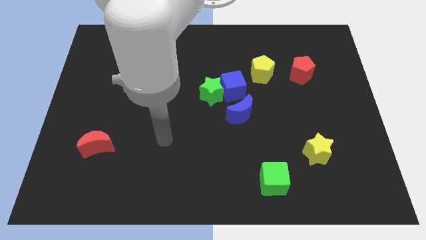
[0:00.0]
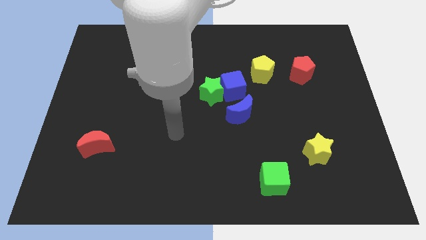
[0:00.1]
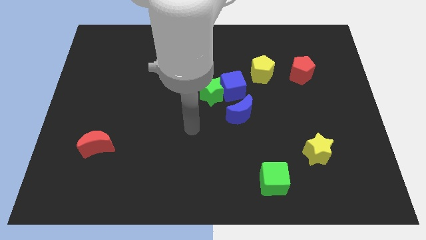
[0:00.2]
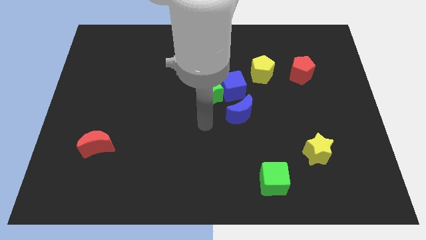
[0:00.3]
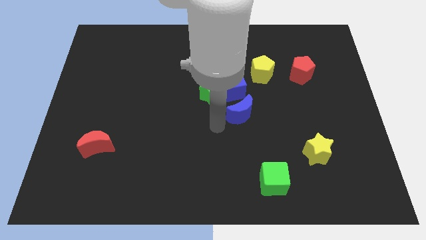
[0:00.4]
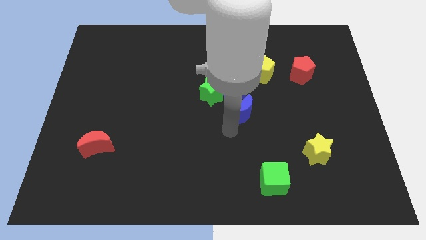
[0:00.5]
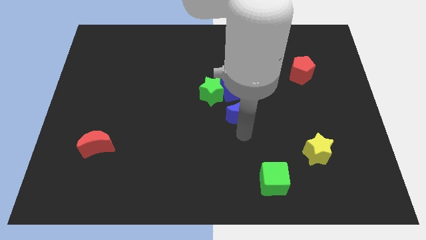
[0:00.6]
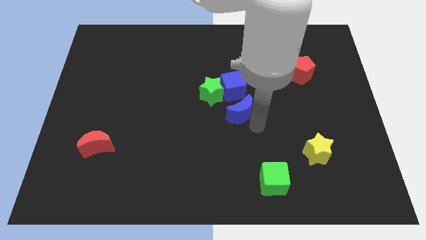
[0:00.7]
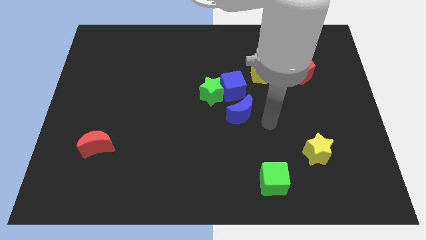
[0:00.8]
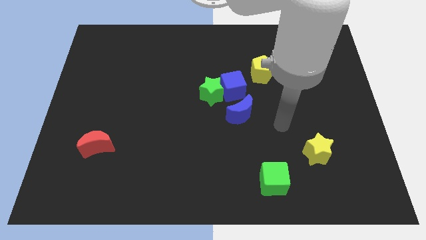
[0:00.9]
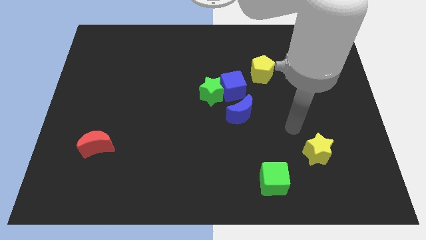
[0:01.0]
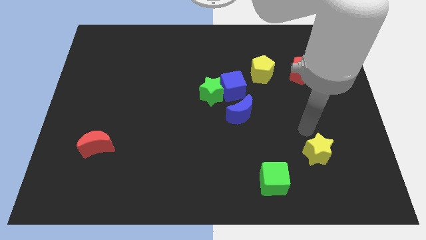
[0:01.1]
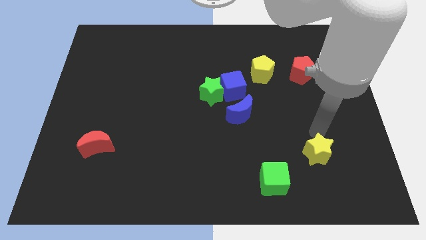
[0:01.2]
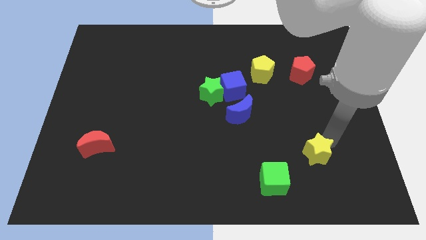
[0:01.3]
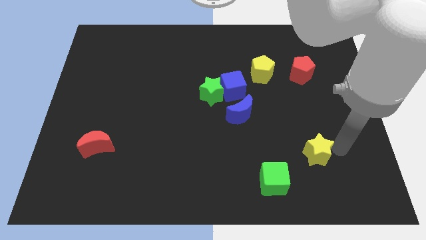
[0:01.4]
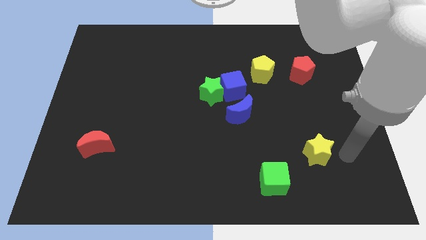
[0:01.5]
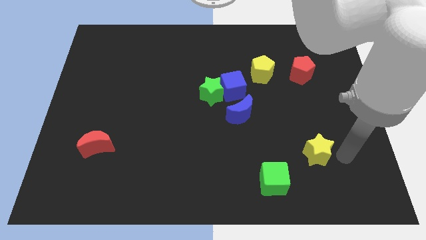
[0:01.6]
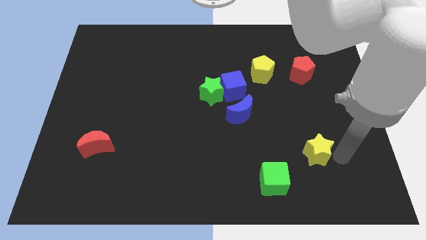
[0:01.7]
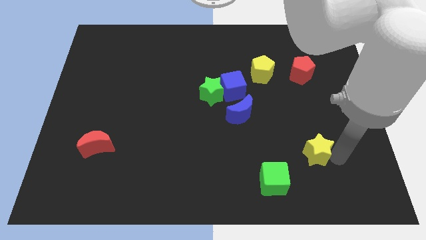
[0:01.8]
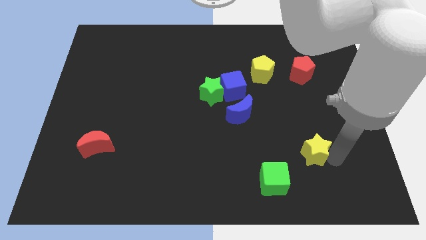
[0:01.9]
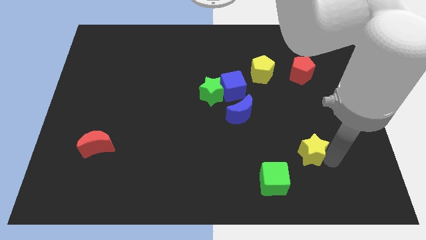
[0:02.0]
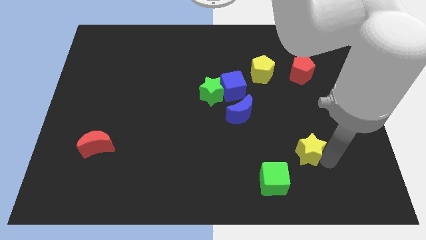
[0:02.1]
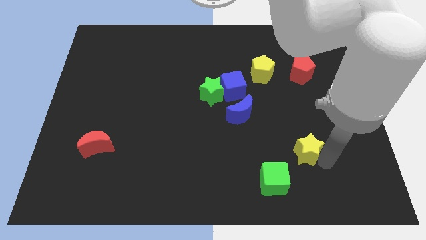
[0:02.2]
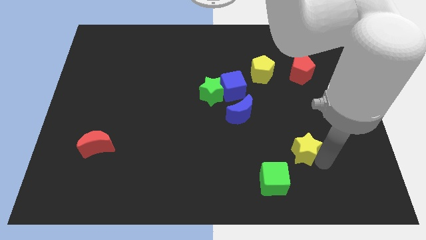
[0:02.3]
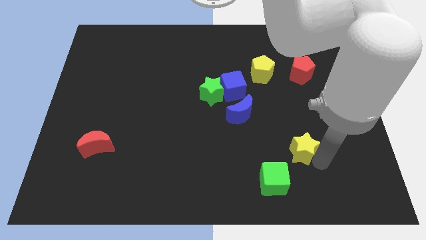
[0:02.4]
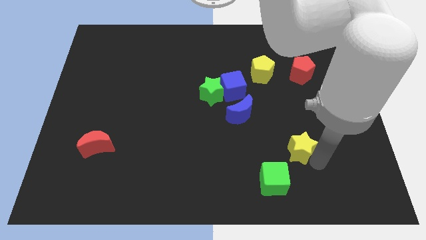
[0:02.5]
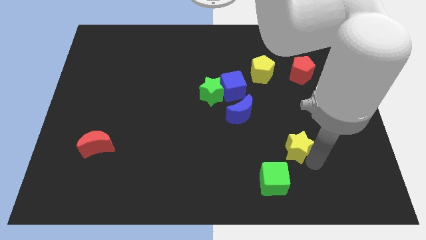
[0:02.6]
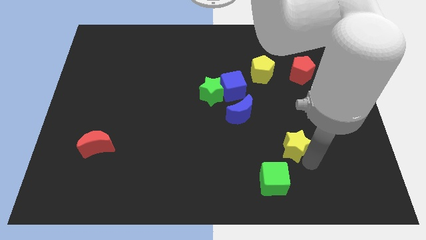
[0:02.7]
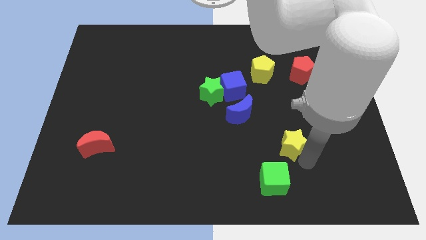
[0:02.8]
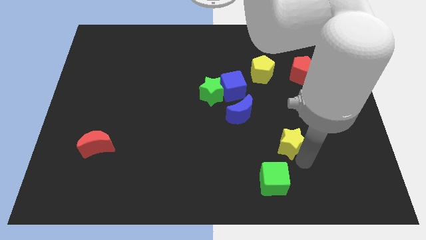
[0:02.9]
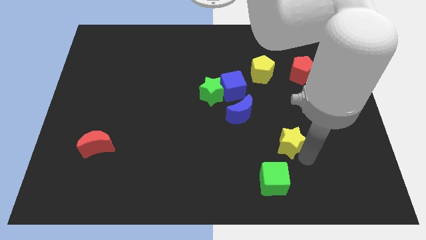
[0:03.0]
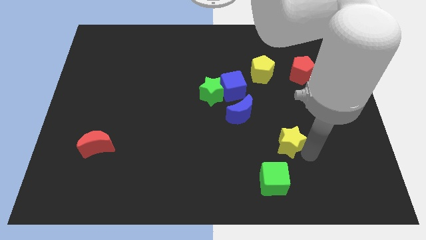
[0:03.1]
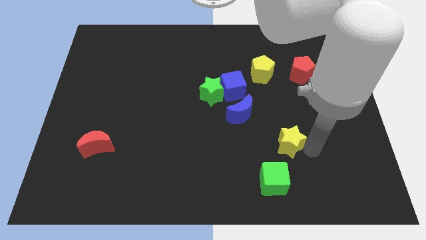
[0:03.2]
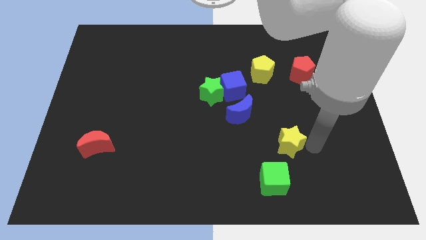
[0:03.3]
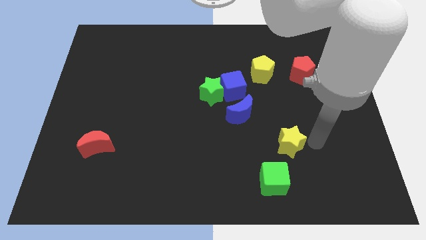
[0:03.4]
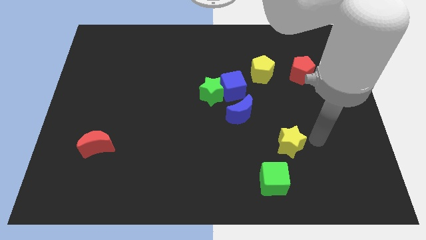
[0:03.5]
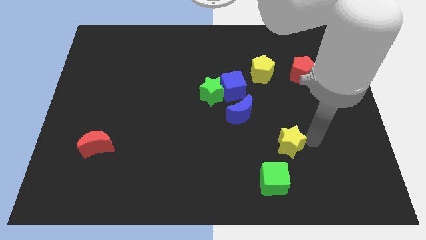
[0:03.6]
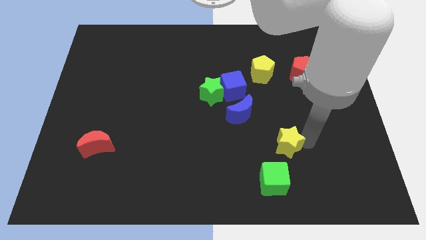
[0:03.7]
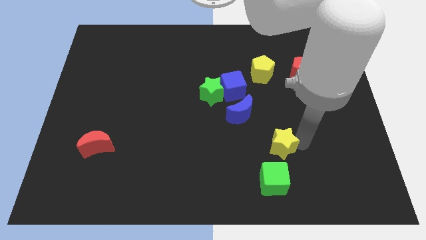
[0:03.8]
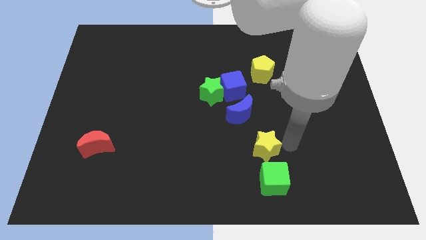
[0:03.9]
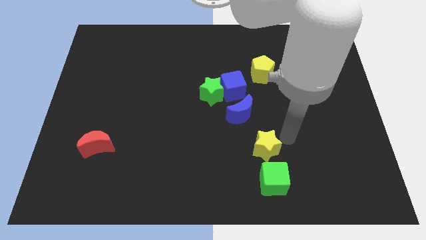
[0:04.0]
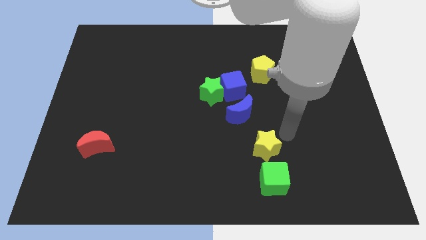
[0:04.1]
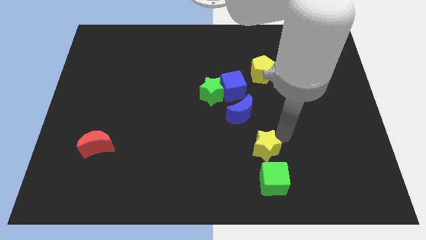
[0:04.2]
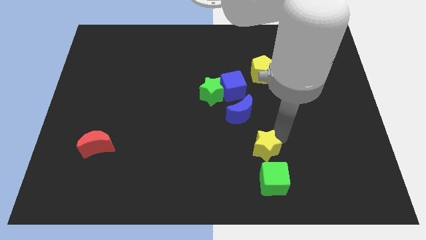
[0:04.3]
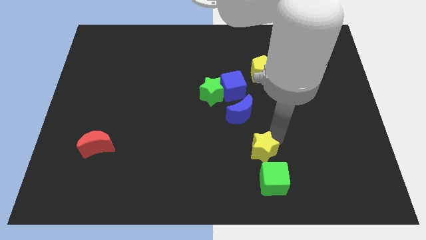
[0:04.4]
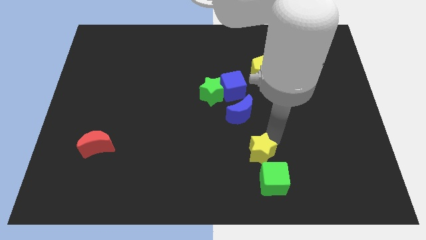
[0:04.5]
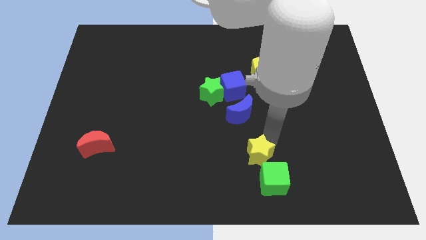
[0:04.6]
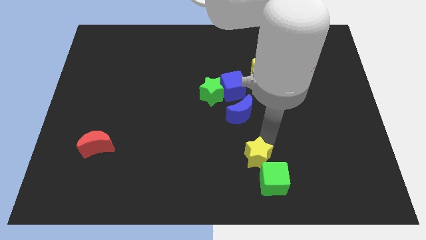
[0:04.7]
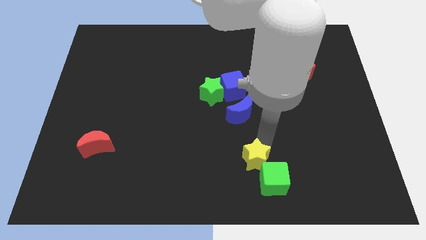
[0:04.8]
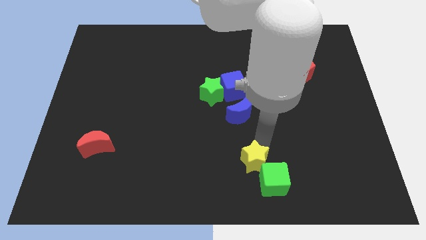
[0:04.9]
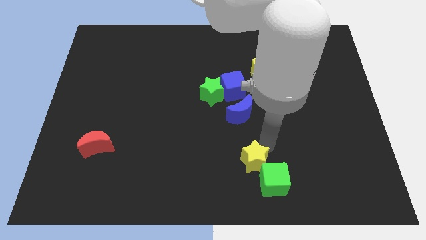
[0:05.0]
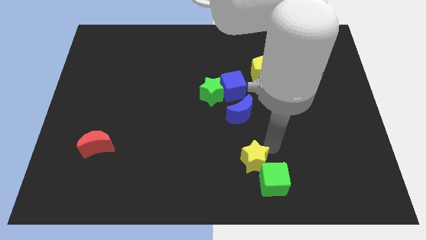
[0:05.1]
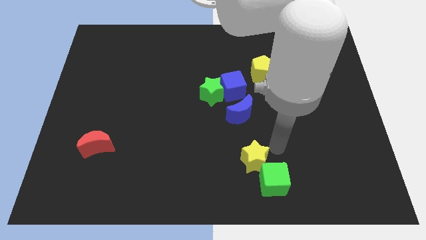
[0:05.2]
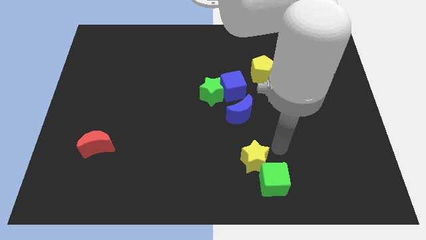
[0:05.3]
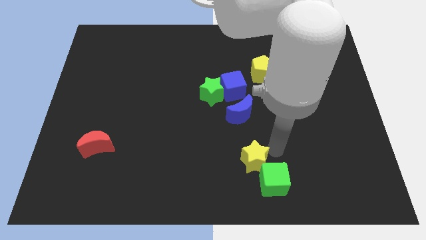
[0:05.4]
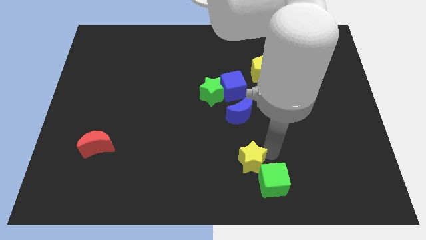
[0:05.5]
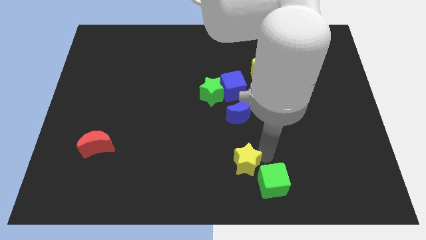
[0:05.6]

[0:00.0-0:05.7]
put the yellow star to the bottom

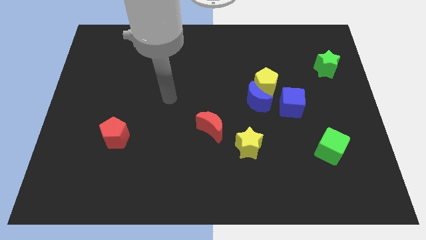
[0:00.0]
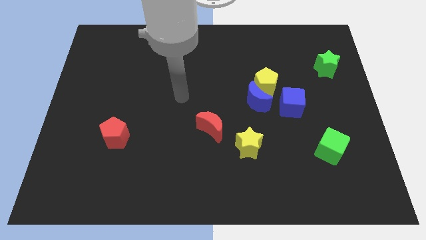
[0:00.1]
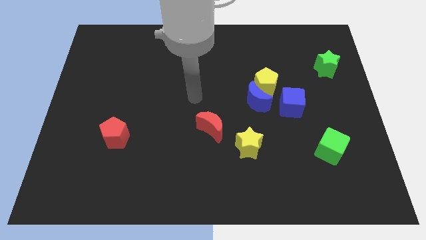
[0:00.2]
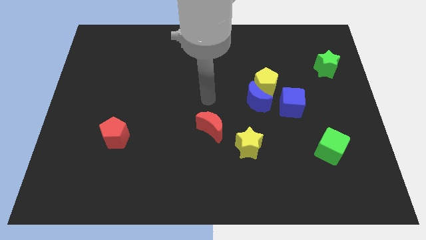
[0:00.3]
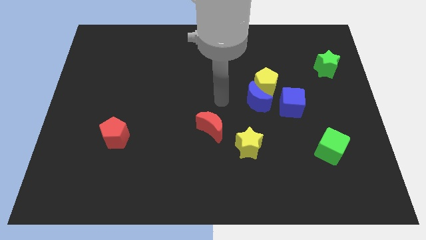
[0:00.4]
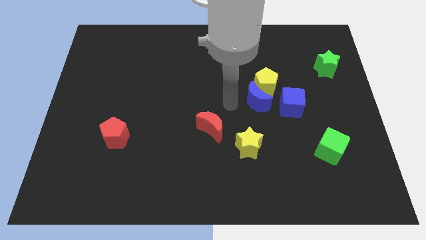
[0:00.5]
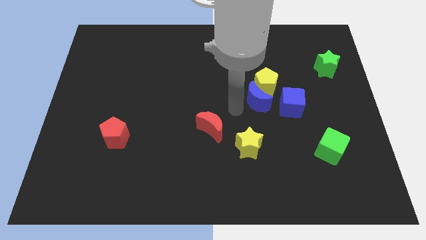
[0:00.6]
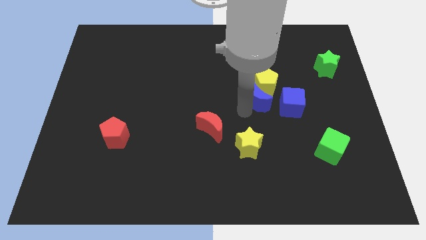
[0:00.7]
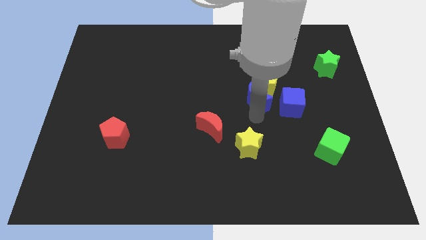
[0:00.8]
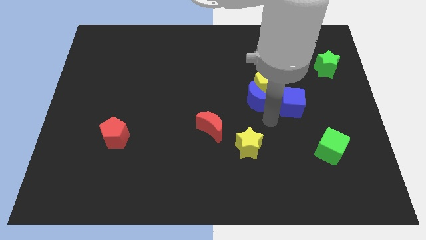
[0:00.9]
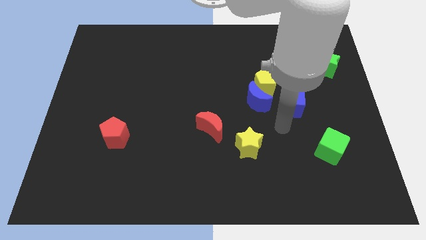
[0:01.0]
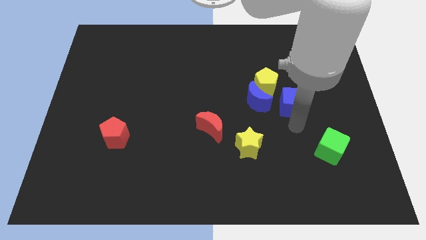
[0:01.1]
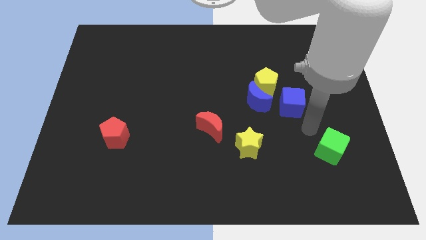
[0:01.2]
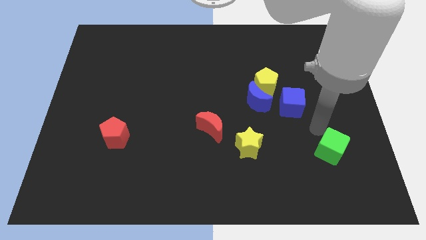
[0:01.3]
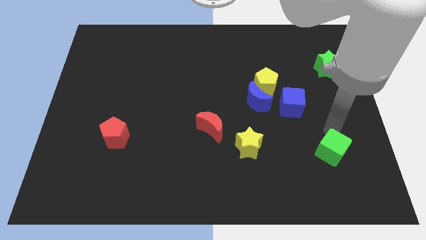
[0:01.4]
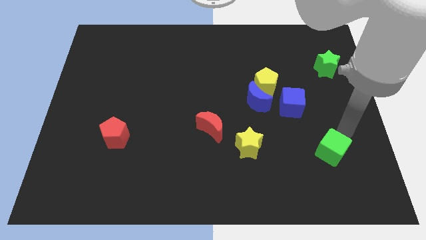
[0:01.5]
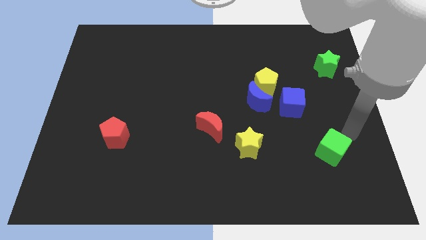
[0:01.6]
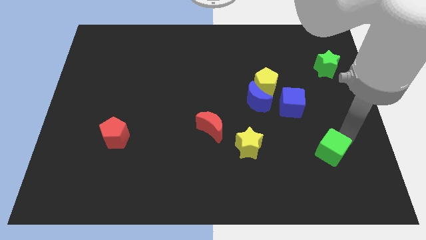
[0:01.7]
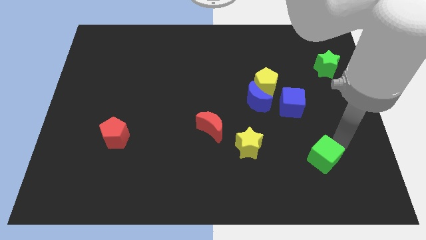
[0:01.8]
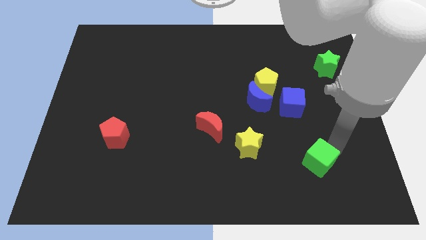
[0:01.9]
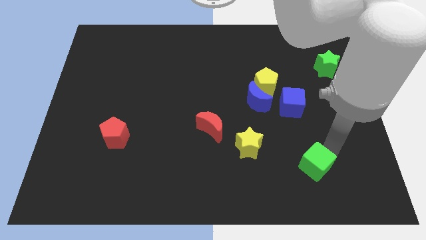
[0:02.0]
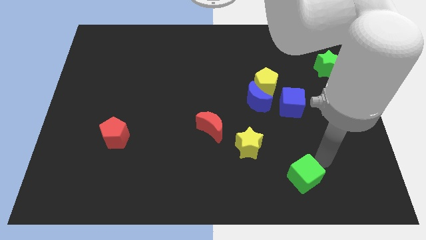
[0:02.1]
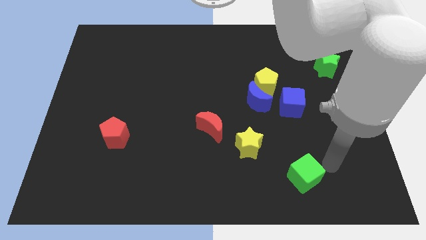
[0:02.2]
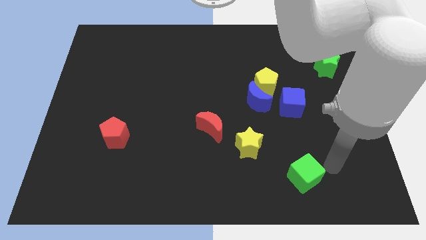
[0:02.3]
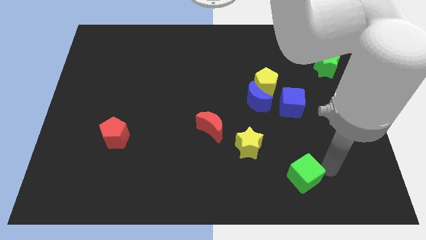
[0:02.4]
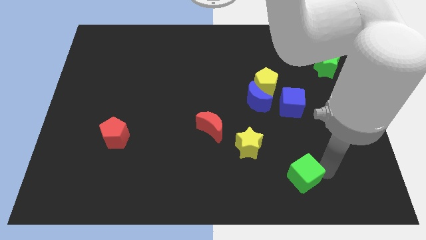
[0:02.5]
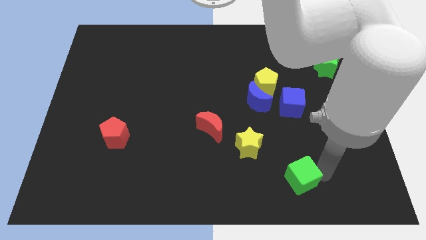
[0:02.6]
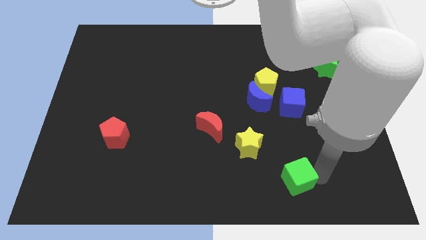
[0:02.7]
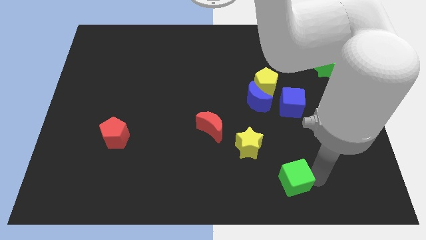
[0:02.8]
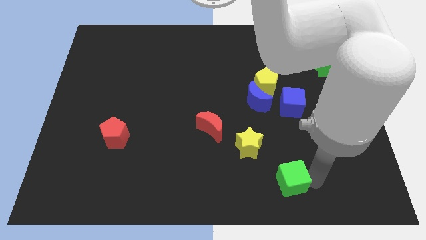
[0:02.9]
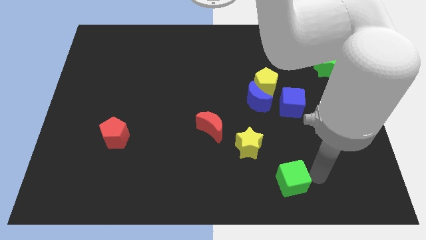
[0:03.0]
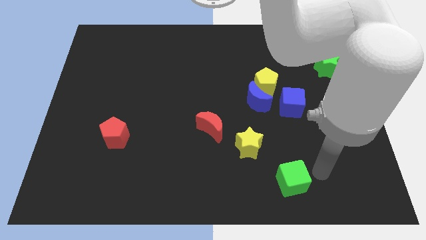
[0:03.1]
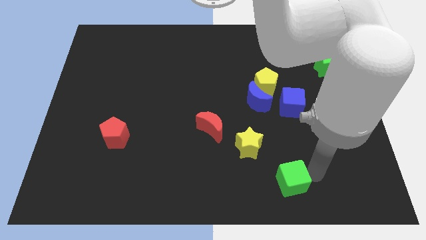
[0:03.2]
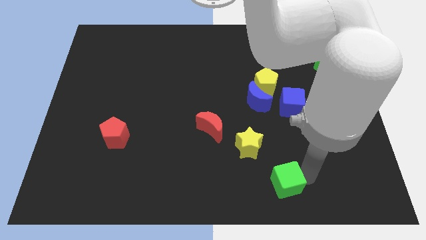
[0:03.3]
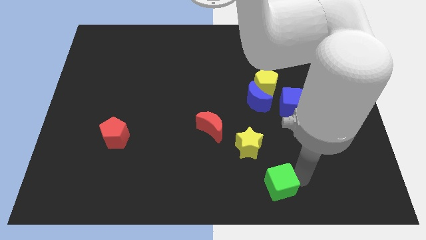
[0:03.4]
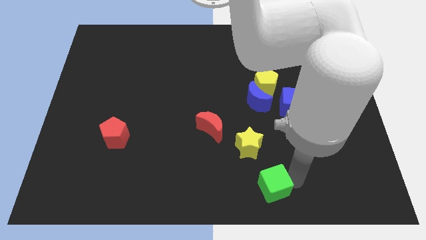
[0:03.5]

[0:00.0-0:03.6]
move the green cube to the bottom side
